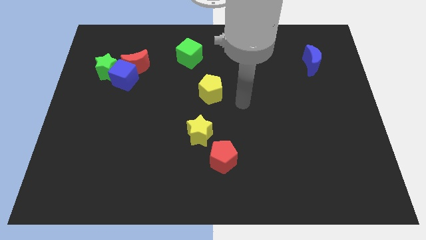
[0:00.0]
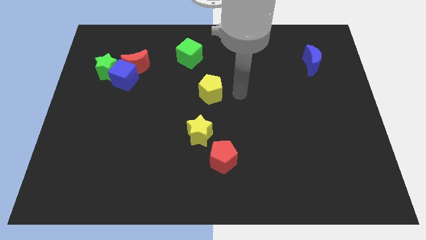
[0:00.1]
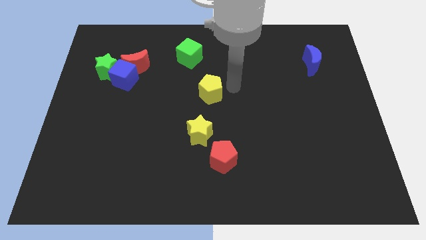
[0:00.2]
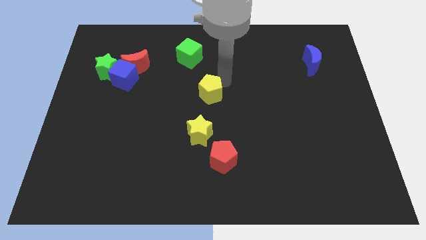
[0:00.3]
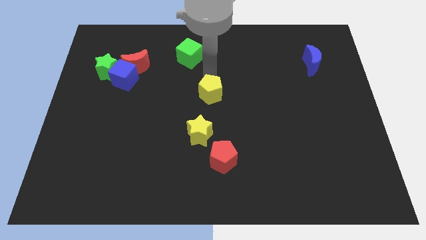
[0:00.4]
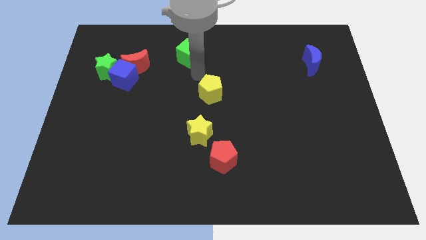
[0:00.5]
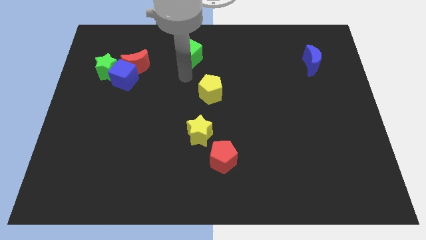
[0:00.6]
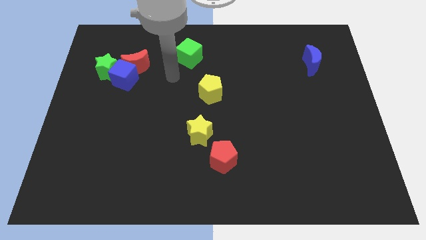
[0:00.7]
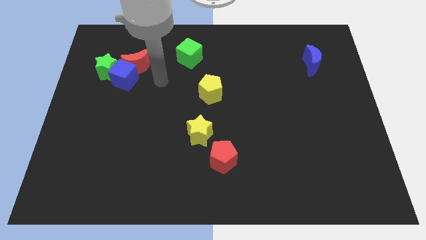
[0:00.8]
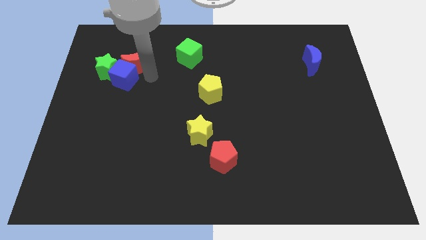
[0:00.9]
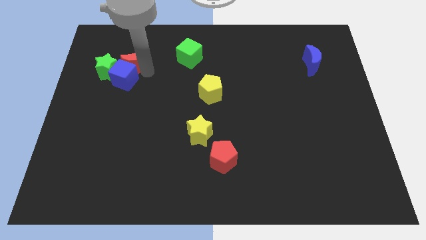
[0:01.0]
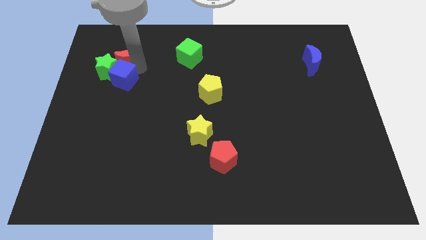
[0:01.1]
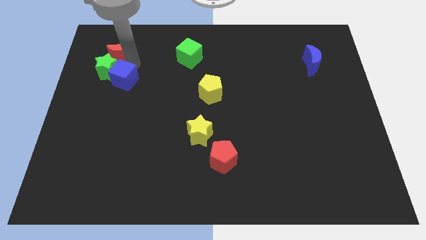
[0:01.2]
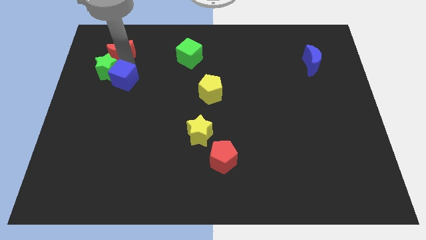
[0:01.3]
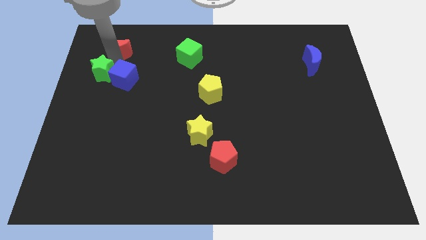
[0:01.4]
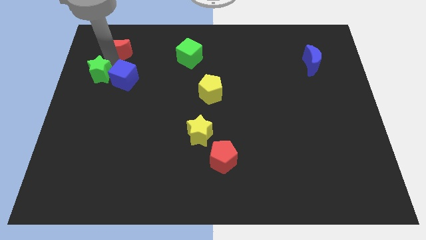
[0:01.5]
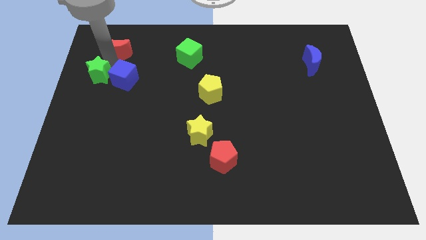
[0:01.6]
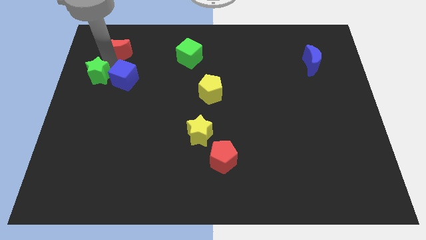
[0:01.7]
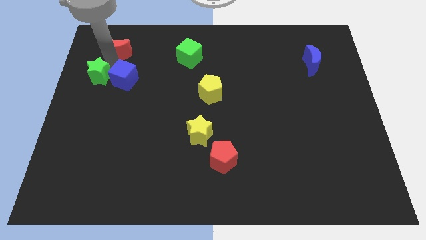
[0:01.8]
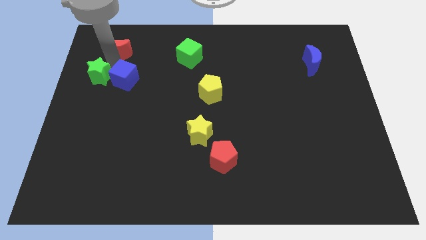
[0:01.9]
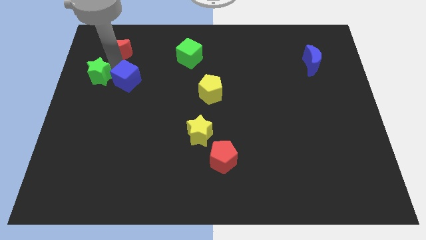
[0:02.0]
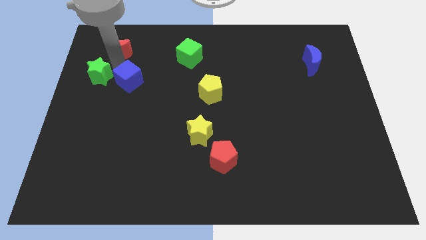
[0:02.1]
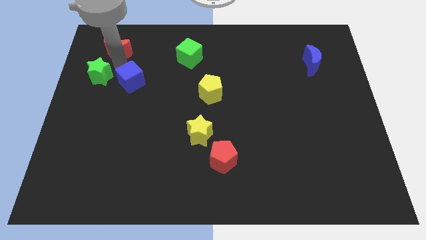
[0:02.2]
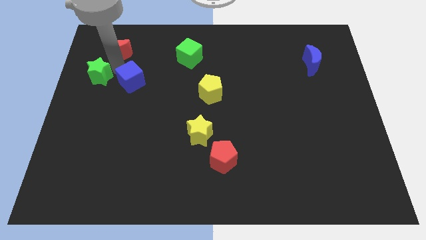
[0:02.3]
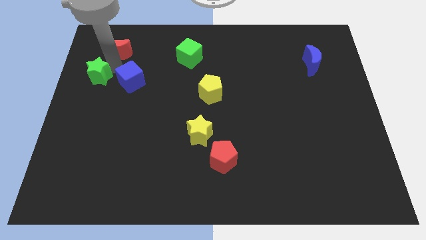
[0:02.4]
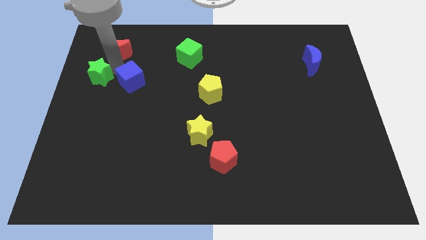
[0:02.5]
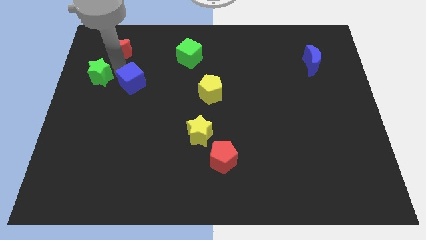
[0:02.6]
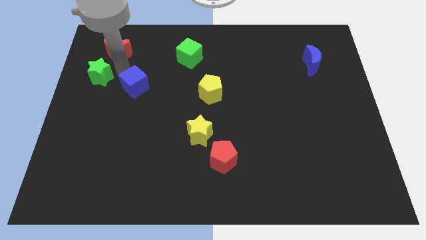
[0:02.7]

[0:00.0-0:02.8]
pull the blue cube apart from the red moon and green star

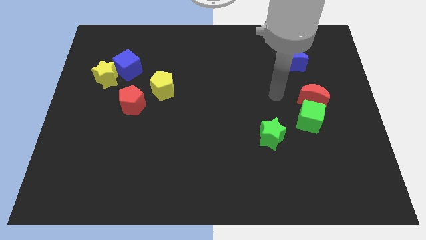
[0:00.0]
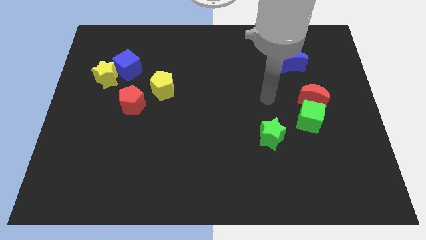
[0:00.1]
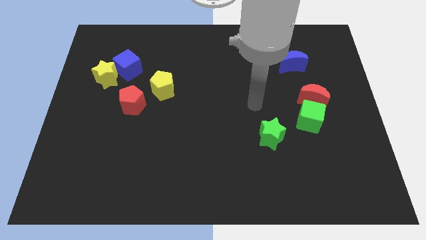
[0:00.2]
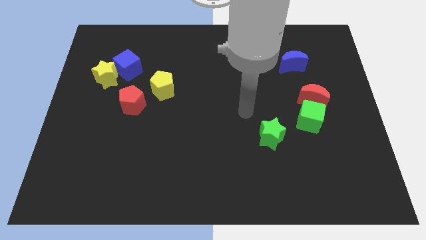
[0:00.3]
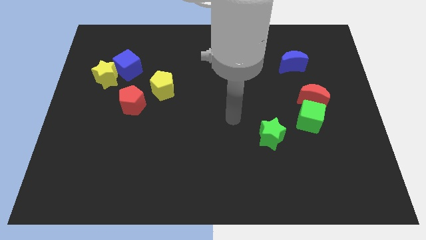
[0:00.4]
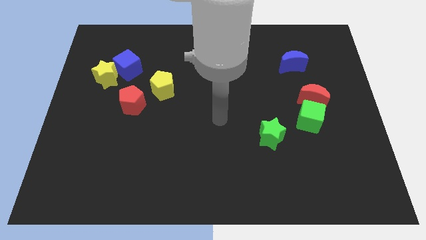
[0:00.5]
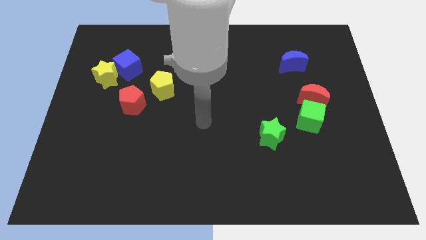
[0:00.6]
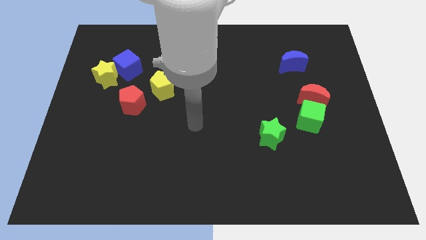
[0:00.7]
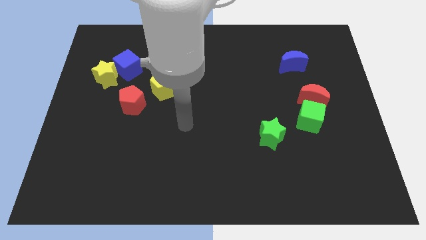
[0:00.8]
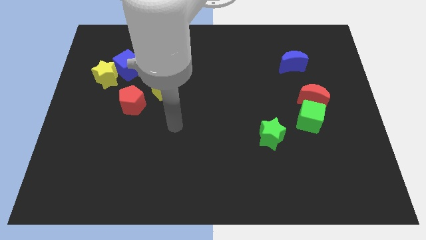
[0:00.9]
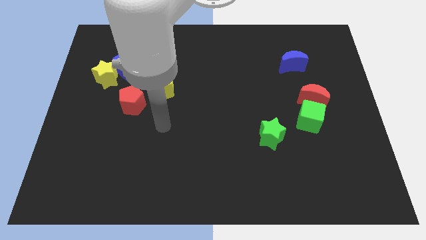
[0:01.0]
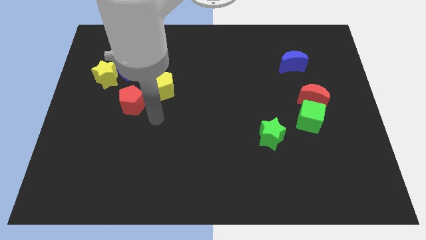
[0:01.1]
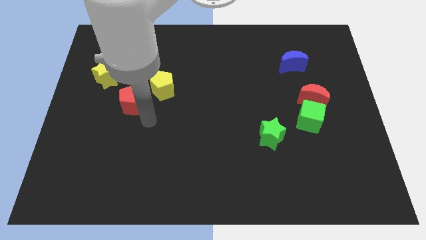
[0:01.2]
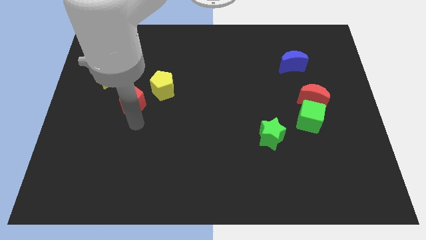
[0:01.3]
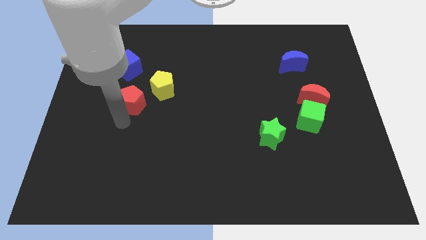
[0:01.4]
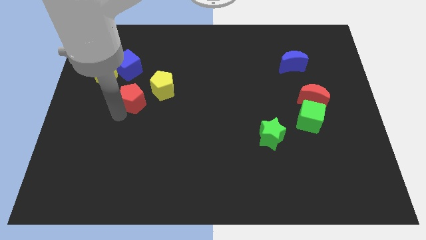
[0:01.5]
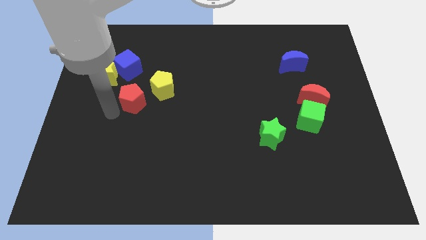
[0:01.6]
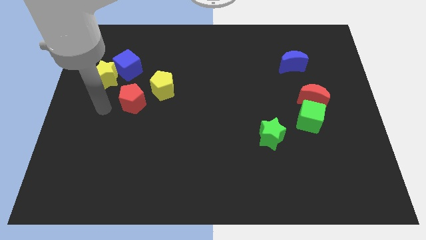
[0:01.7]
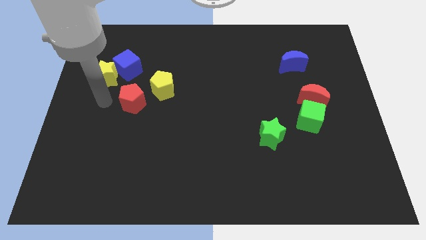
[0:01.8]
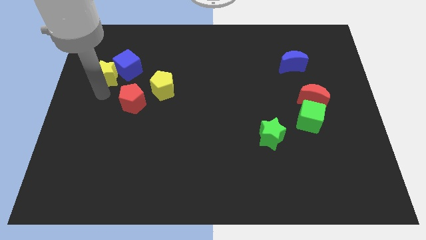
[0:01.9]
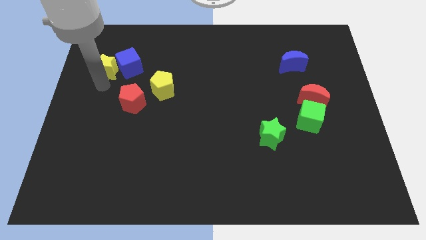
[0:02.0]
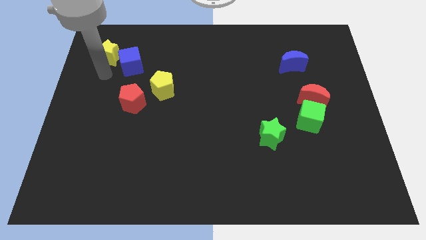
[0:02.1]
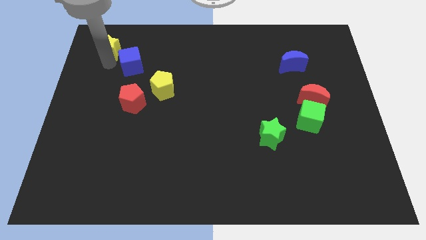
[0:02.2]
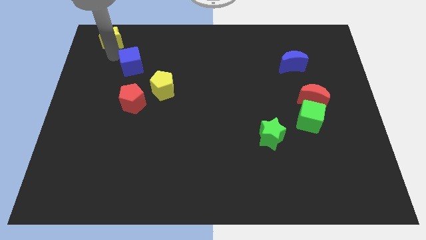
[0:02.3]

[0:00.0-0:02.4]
pull the blue cube apart from the yellow star

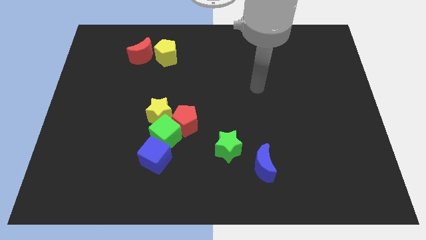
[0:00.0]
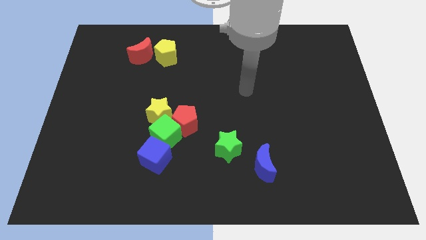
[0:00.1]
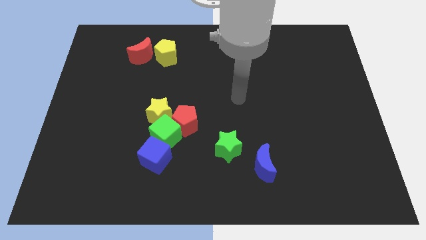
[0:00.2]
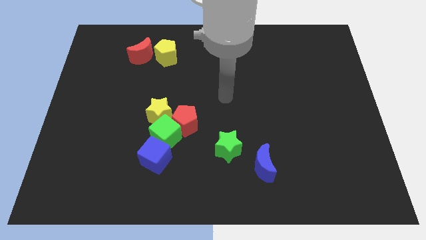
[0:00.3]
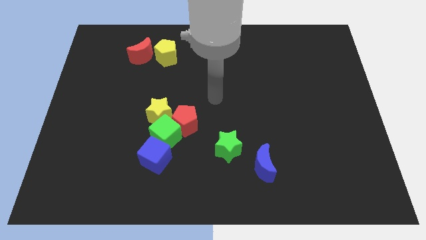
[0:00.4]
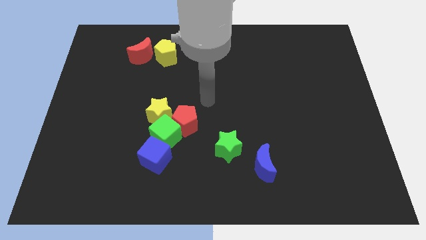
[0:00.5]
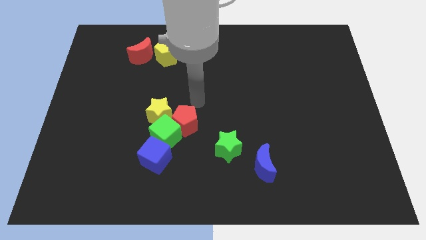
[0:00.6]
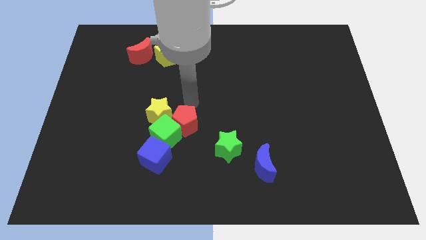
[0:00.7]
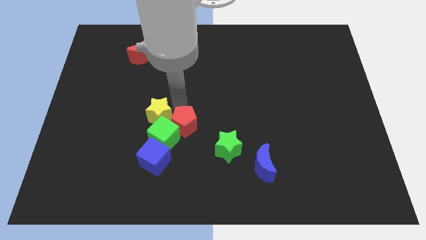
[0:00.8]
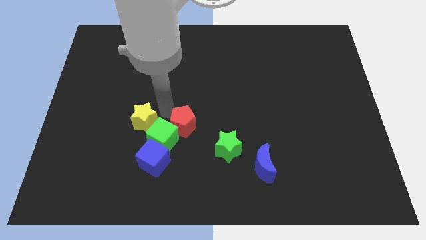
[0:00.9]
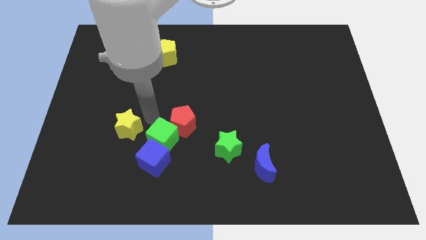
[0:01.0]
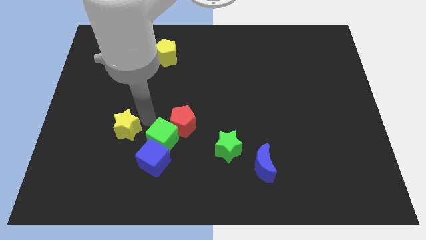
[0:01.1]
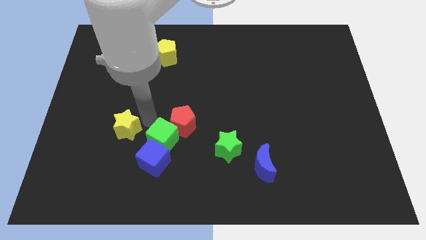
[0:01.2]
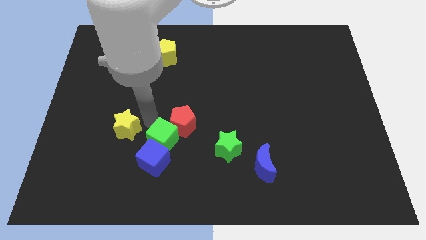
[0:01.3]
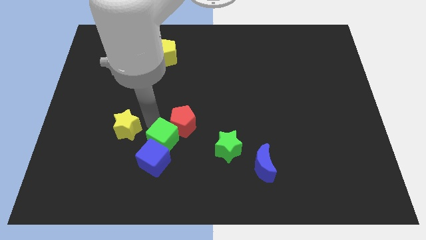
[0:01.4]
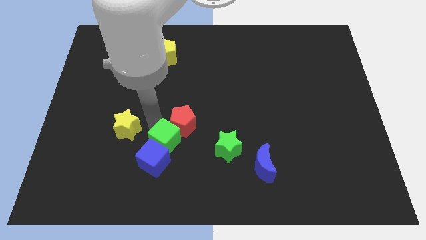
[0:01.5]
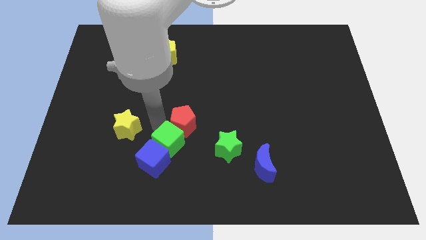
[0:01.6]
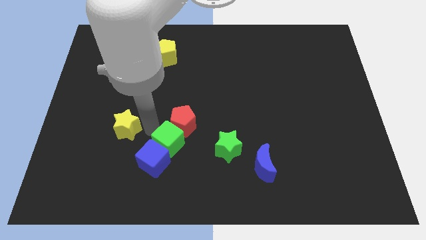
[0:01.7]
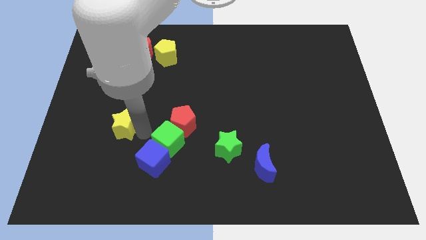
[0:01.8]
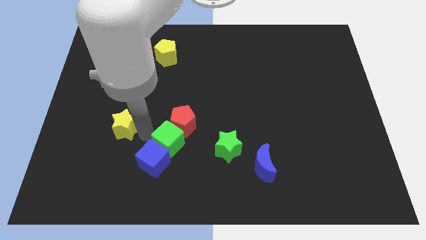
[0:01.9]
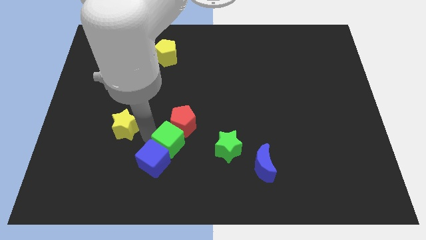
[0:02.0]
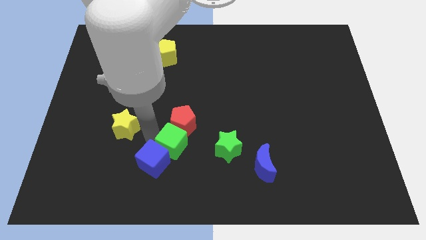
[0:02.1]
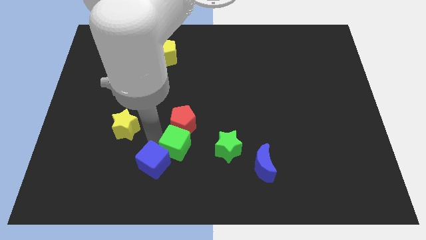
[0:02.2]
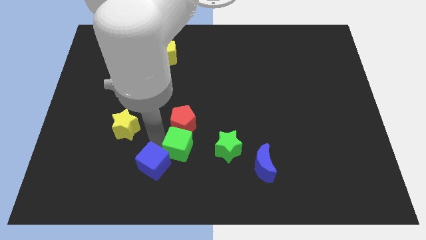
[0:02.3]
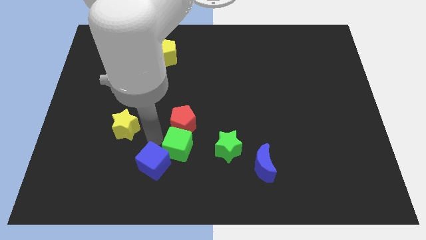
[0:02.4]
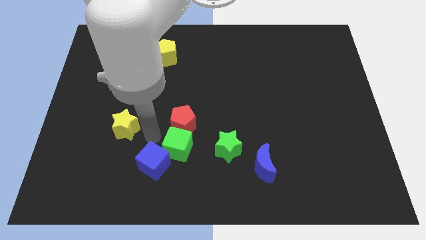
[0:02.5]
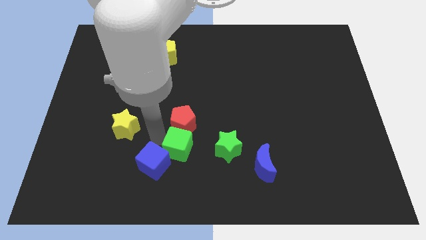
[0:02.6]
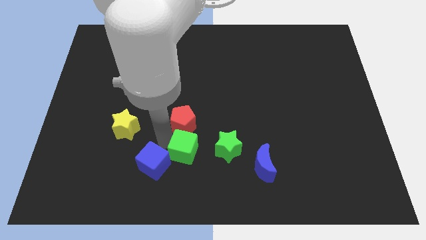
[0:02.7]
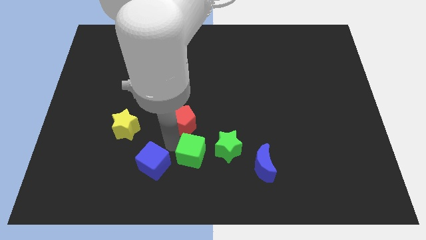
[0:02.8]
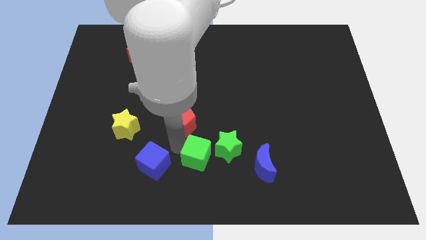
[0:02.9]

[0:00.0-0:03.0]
separate the green cube from the group

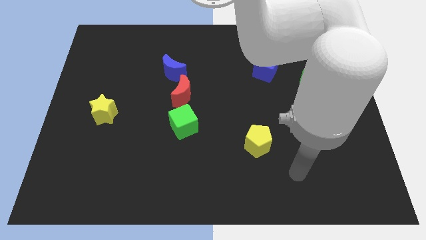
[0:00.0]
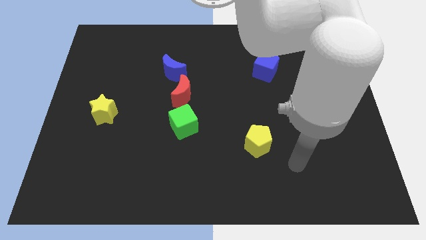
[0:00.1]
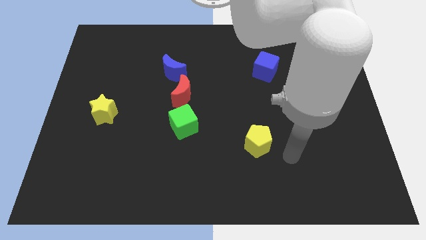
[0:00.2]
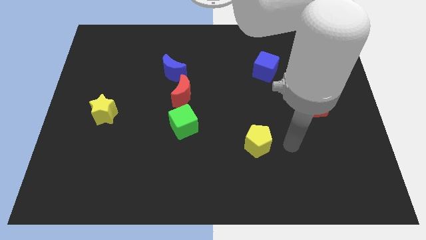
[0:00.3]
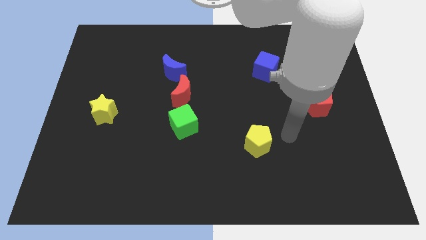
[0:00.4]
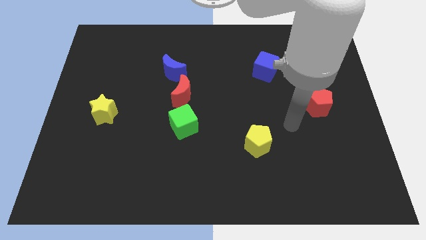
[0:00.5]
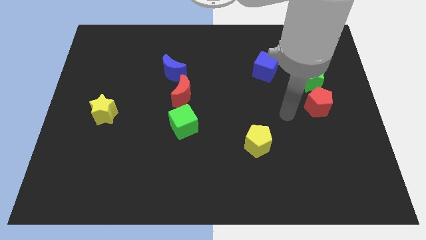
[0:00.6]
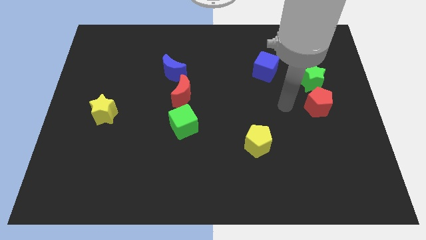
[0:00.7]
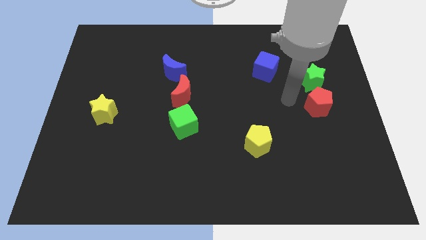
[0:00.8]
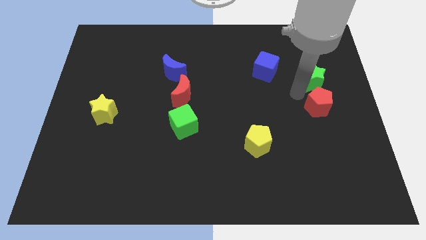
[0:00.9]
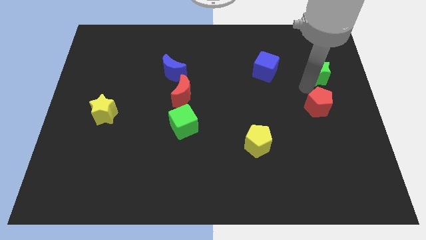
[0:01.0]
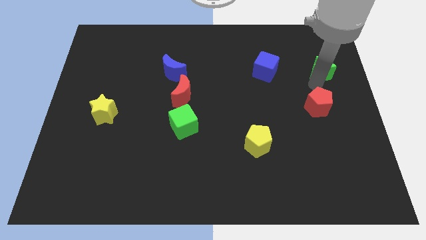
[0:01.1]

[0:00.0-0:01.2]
separate the red pentagon from the green star
